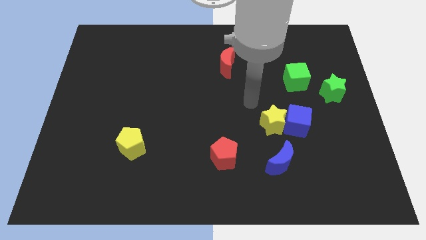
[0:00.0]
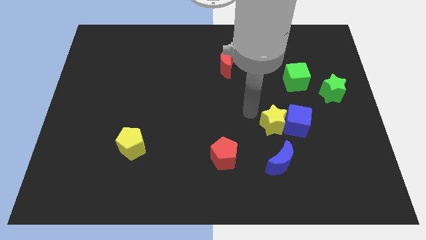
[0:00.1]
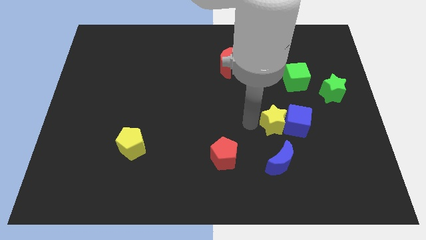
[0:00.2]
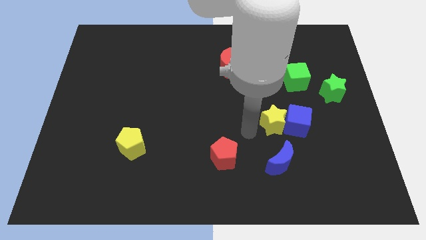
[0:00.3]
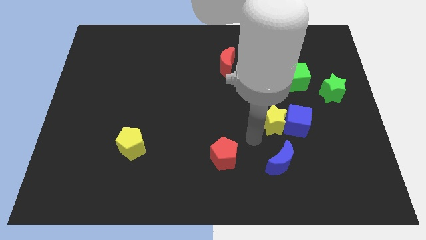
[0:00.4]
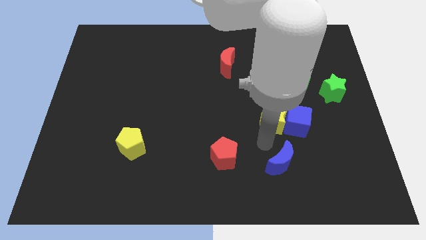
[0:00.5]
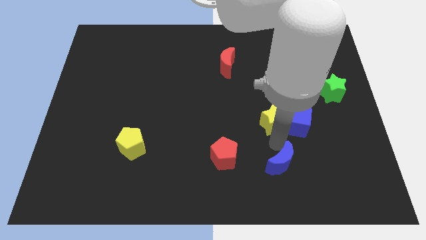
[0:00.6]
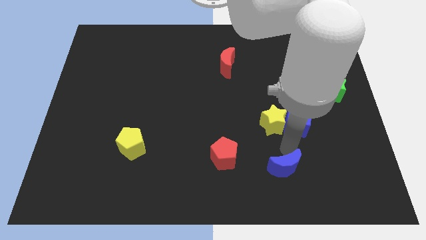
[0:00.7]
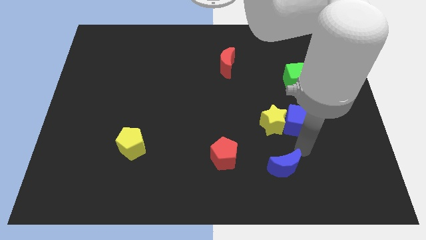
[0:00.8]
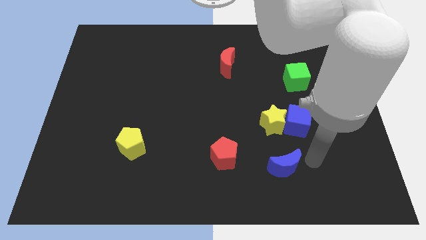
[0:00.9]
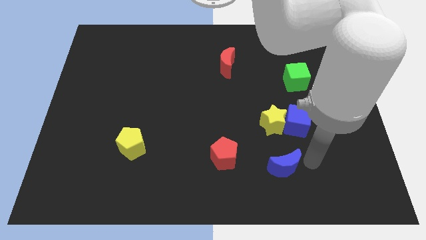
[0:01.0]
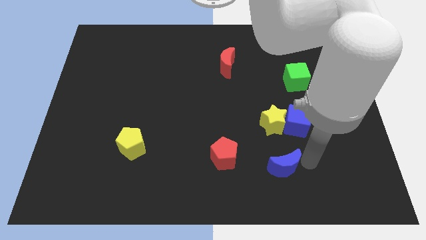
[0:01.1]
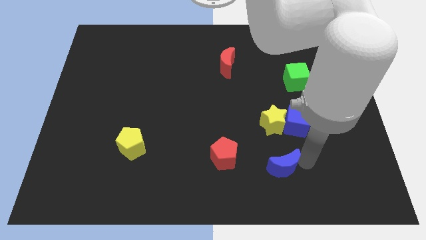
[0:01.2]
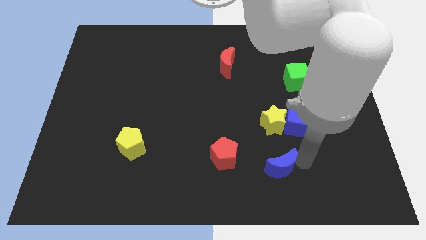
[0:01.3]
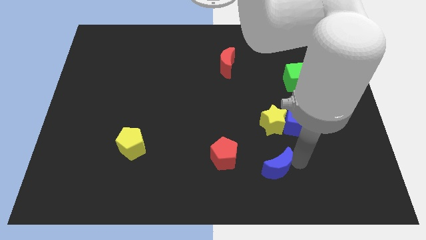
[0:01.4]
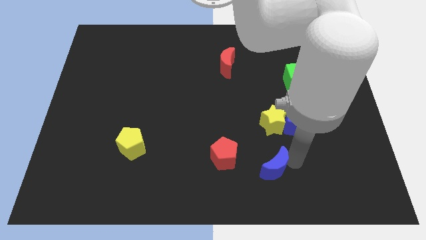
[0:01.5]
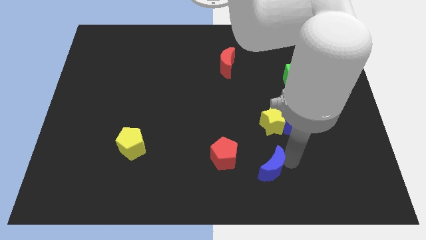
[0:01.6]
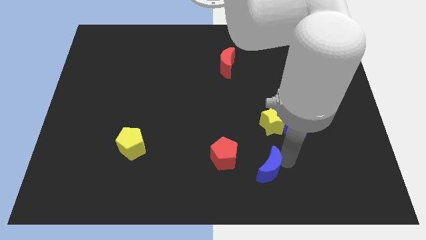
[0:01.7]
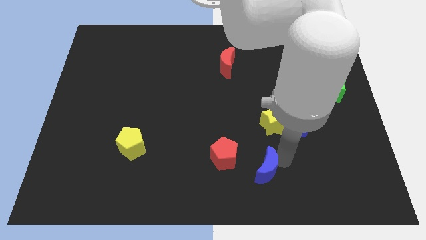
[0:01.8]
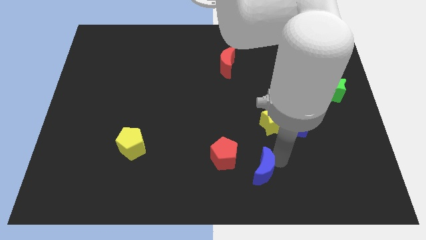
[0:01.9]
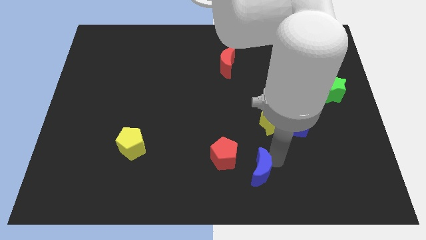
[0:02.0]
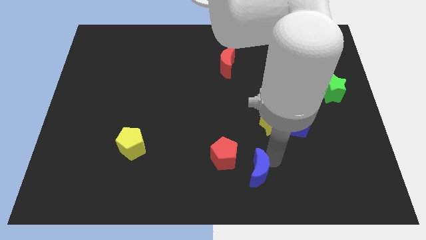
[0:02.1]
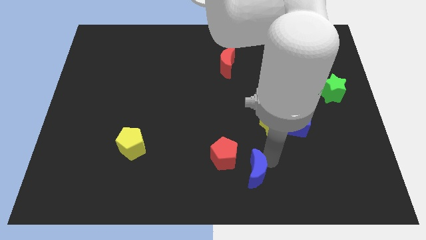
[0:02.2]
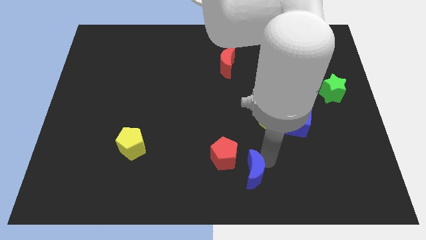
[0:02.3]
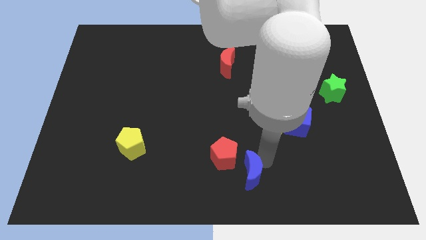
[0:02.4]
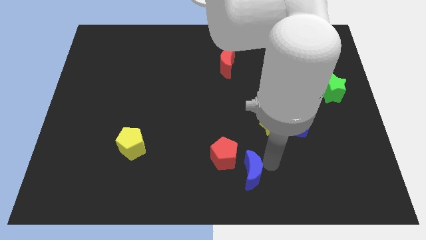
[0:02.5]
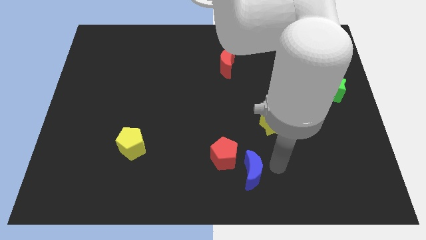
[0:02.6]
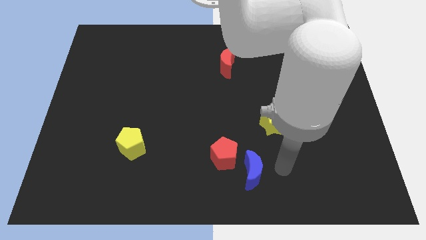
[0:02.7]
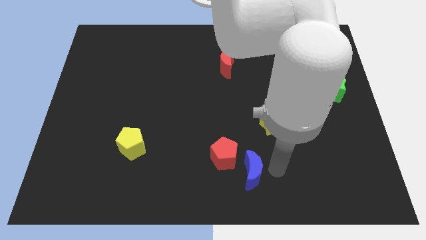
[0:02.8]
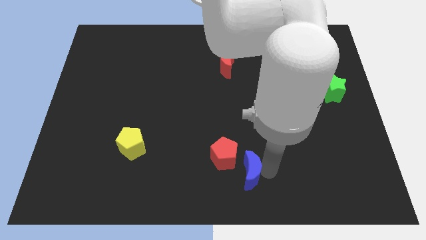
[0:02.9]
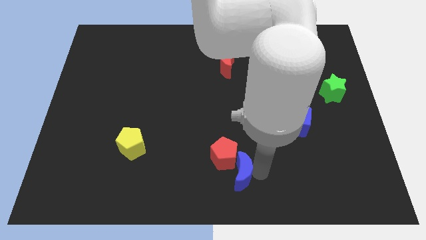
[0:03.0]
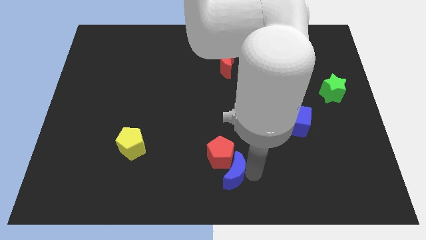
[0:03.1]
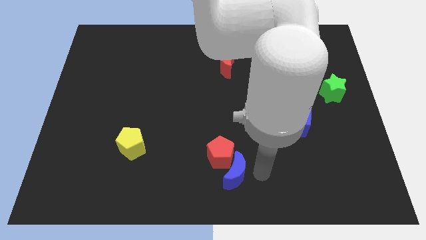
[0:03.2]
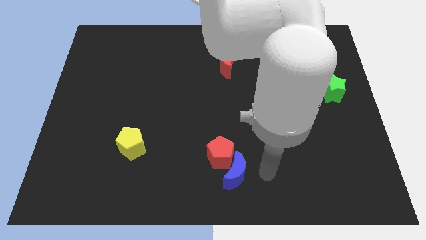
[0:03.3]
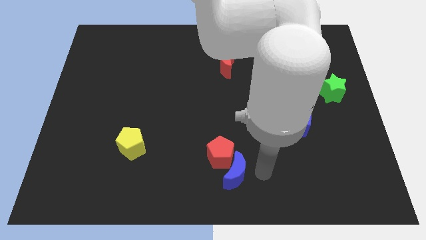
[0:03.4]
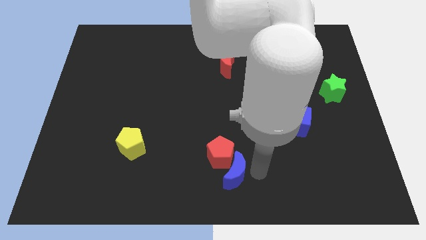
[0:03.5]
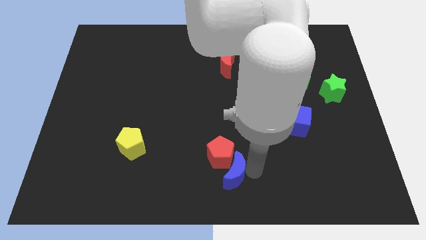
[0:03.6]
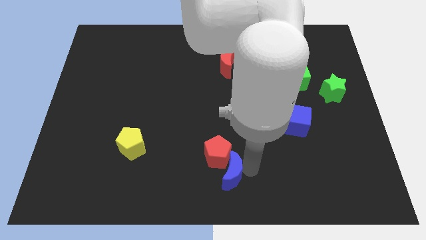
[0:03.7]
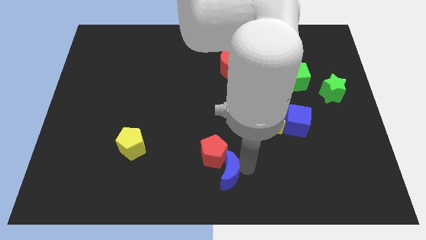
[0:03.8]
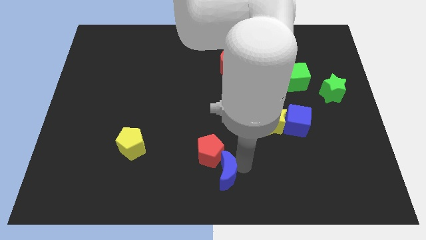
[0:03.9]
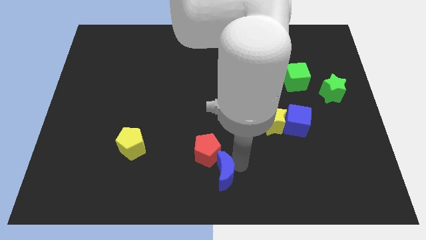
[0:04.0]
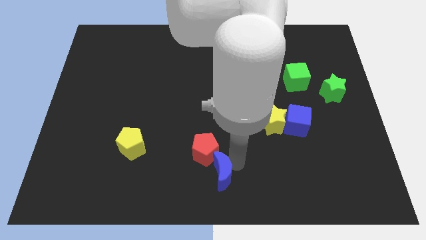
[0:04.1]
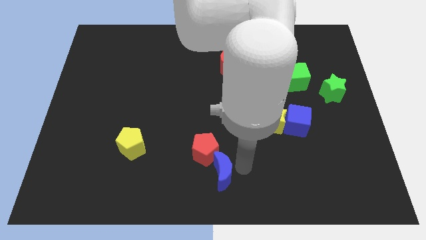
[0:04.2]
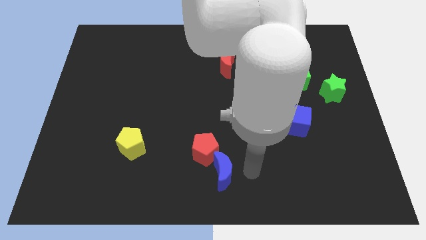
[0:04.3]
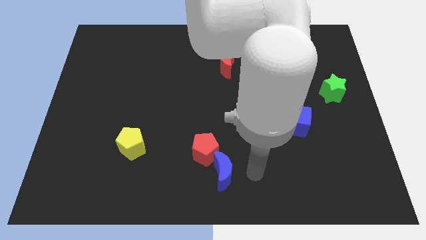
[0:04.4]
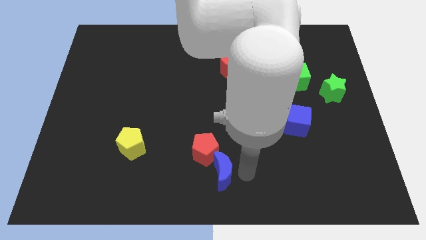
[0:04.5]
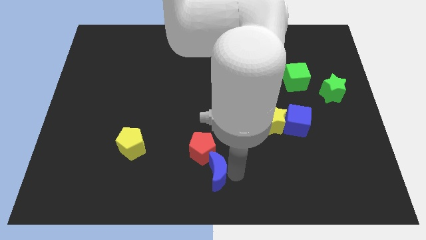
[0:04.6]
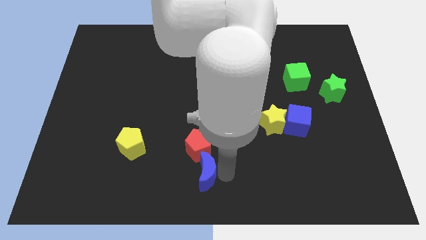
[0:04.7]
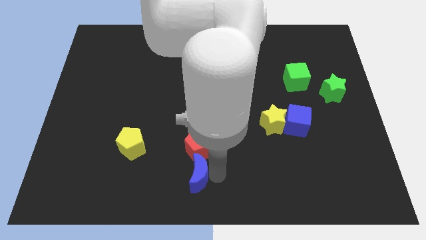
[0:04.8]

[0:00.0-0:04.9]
push the blue moon to the bottom left of the red pentagon

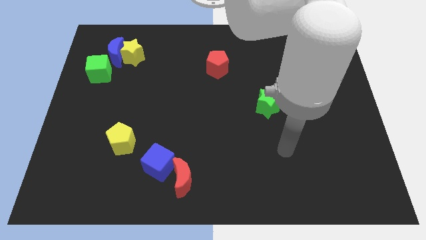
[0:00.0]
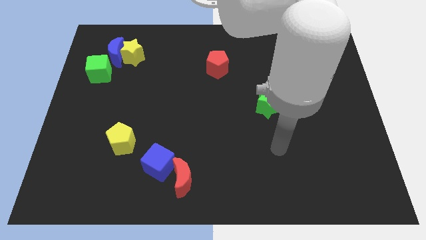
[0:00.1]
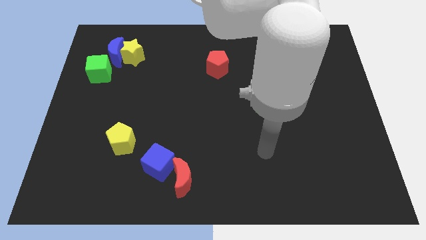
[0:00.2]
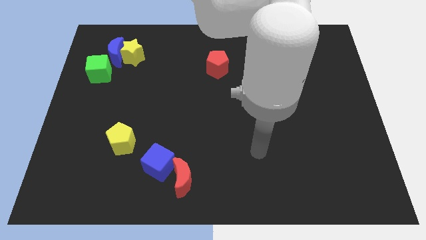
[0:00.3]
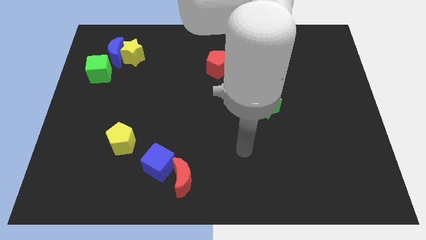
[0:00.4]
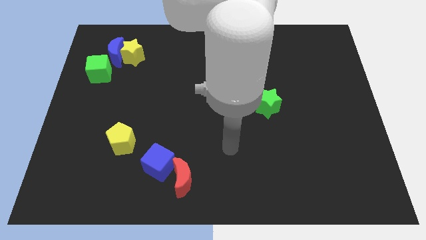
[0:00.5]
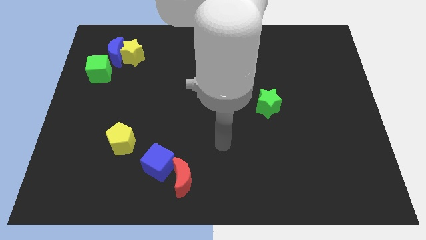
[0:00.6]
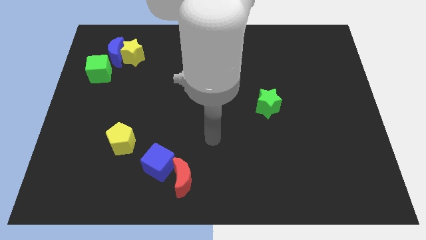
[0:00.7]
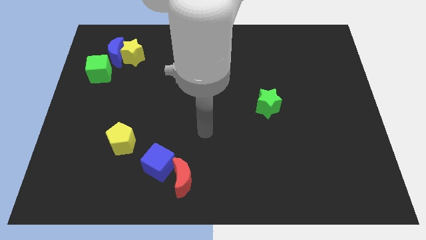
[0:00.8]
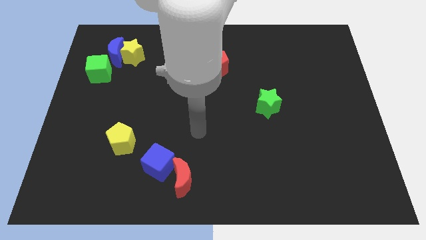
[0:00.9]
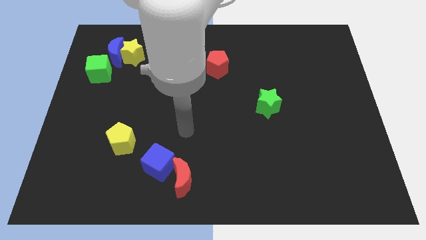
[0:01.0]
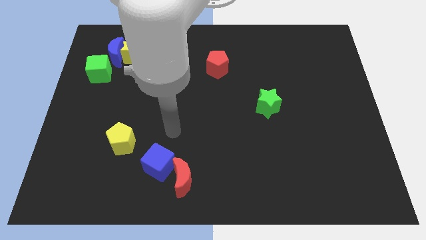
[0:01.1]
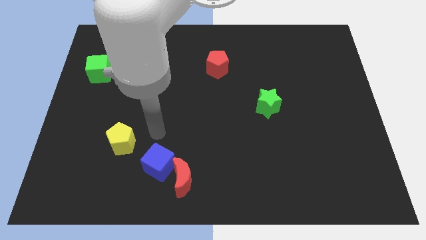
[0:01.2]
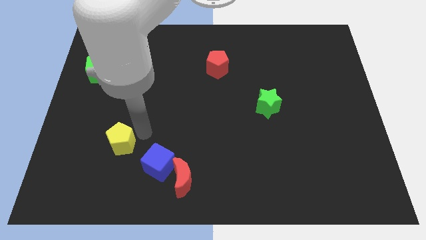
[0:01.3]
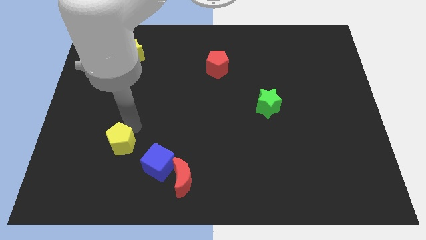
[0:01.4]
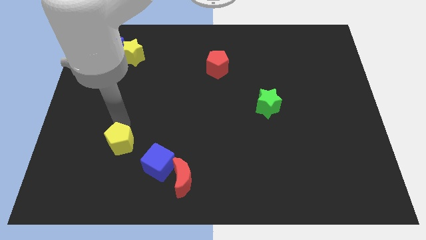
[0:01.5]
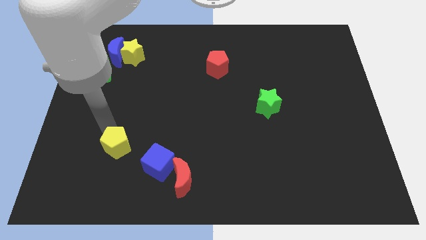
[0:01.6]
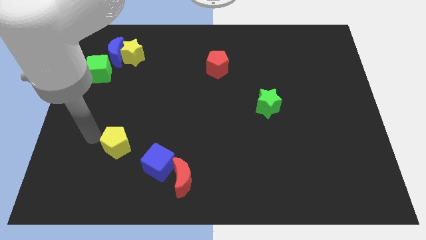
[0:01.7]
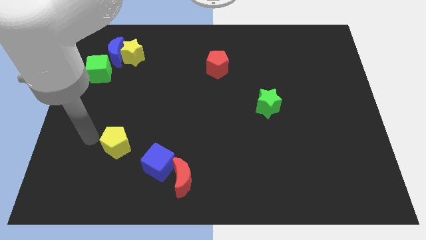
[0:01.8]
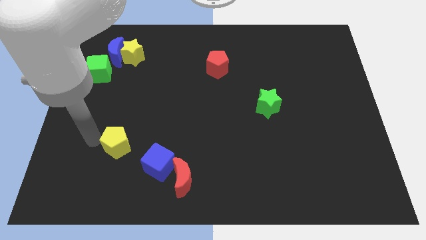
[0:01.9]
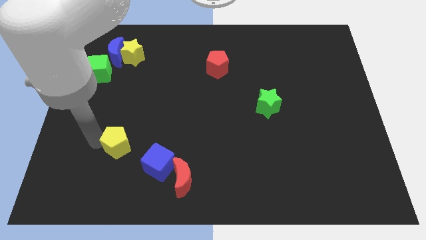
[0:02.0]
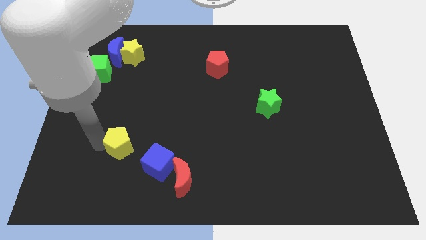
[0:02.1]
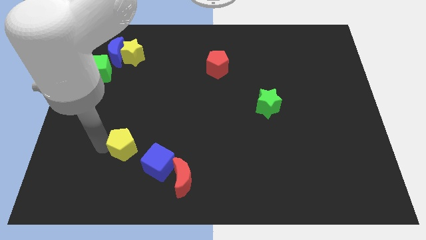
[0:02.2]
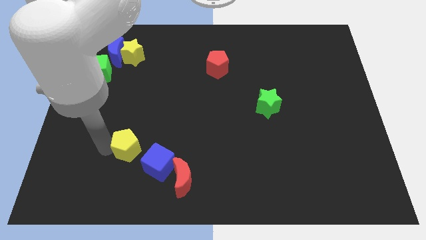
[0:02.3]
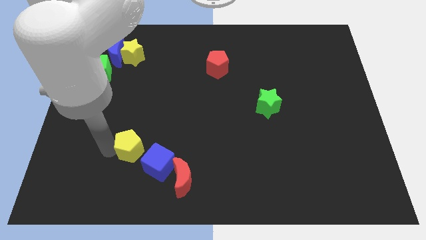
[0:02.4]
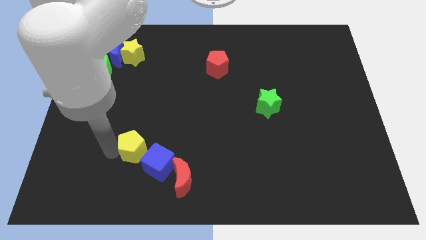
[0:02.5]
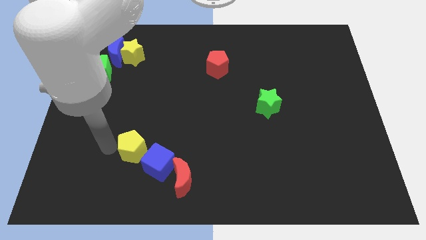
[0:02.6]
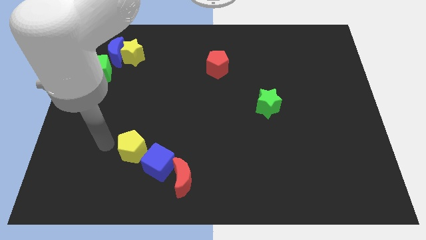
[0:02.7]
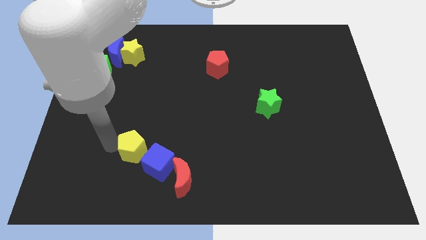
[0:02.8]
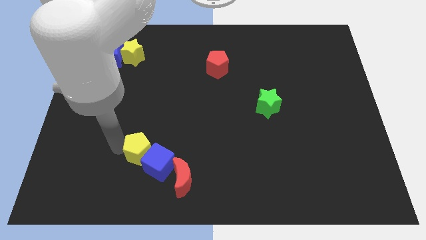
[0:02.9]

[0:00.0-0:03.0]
push the yellow pentagon to the top left side of the red moon
